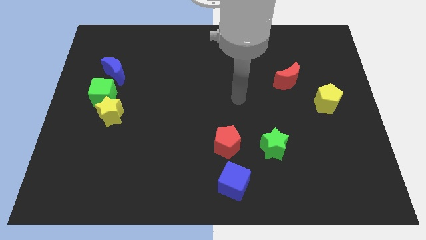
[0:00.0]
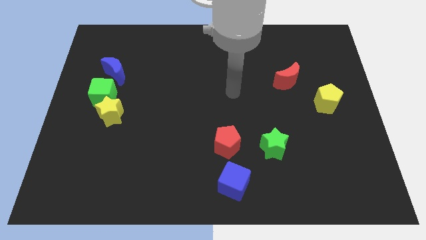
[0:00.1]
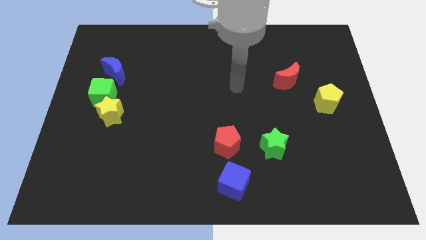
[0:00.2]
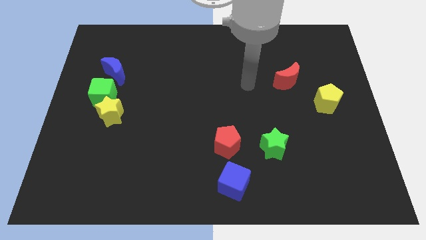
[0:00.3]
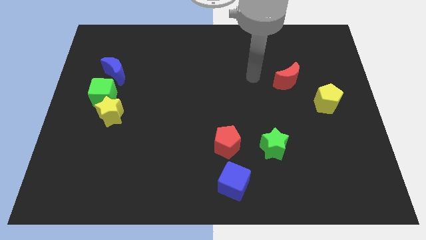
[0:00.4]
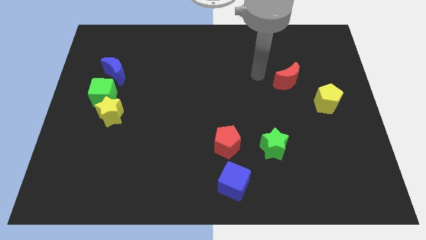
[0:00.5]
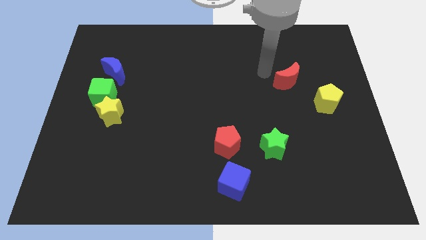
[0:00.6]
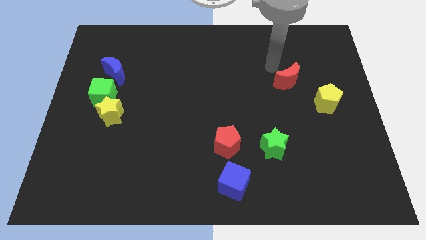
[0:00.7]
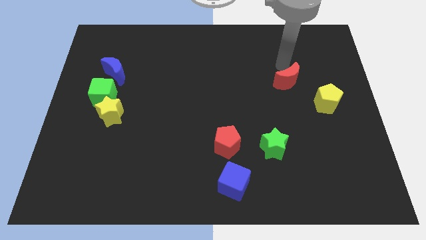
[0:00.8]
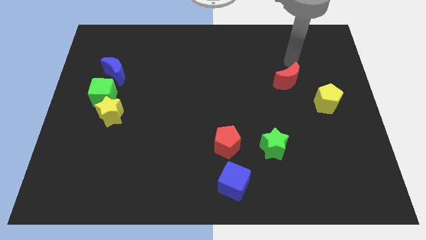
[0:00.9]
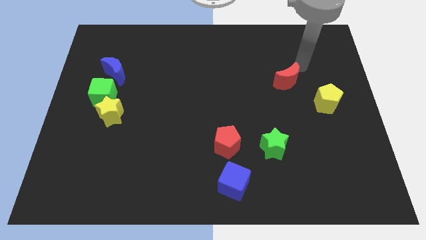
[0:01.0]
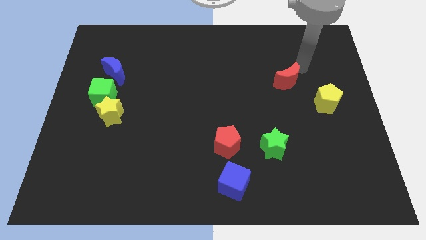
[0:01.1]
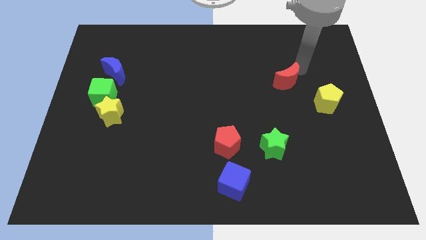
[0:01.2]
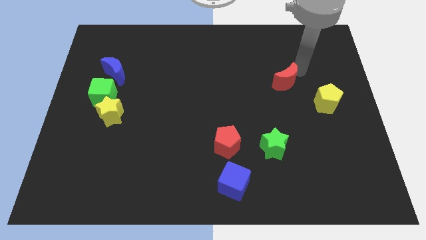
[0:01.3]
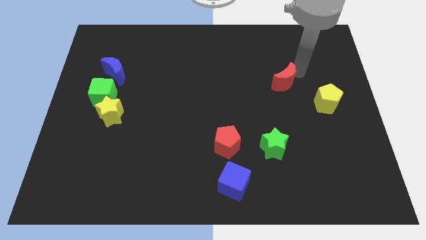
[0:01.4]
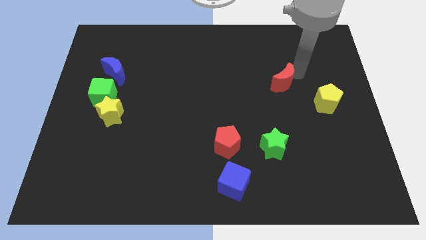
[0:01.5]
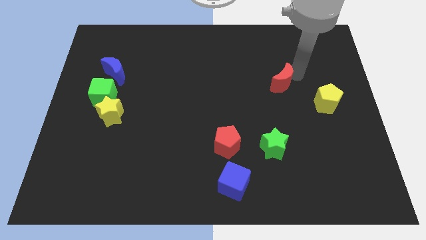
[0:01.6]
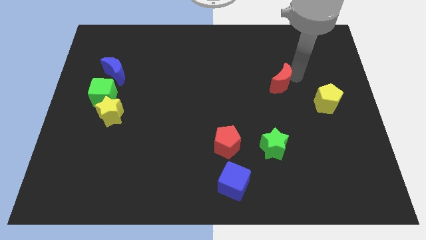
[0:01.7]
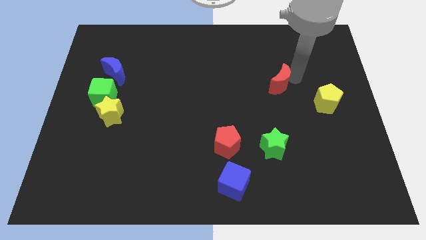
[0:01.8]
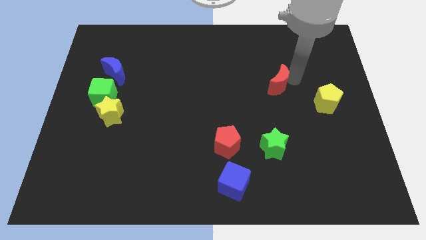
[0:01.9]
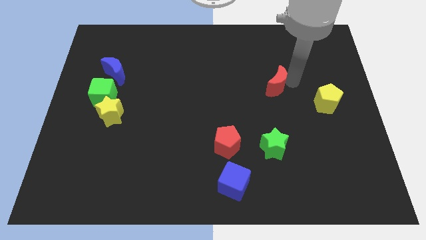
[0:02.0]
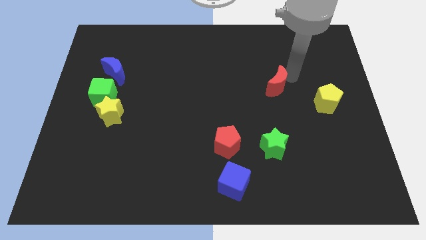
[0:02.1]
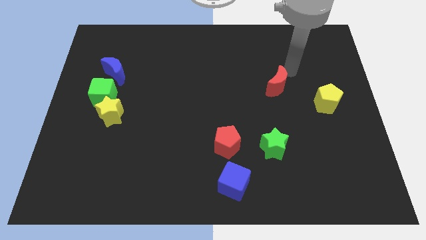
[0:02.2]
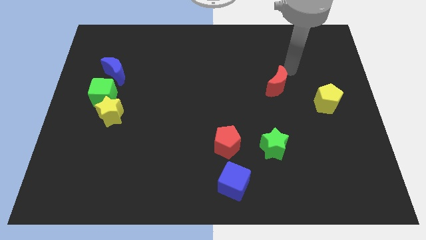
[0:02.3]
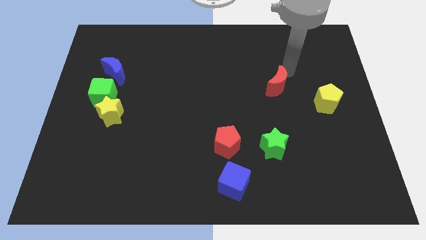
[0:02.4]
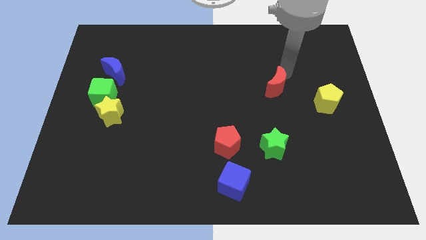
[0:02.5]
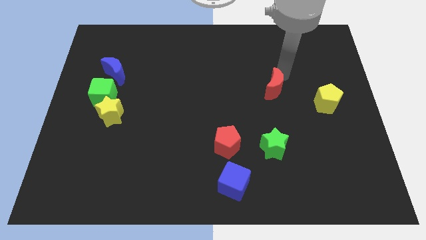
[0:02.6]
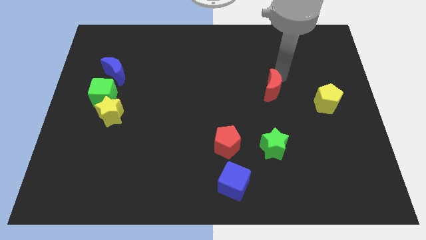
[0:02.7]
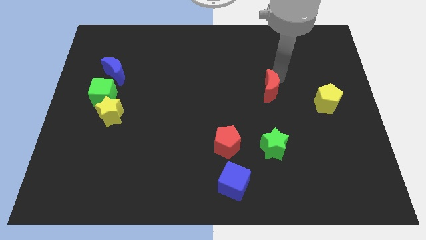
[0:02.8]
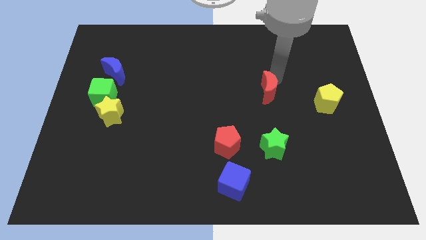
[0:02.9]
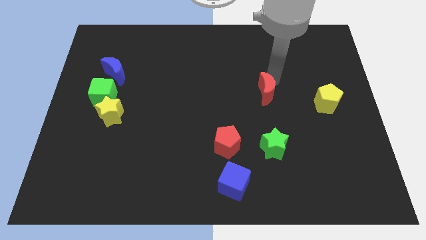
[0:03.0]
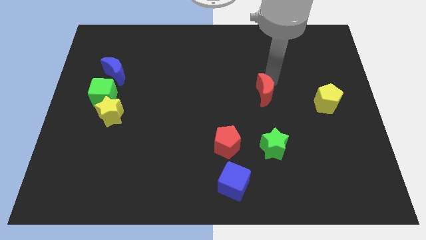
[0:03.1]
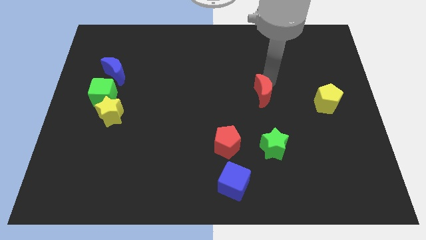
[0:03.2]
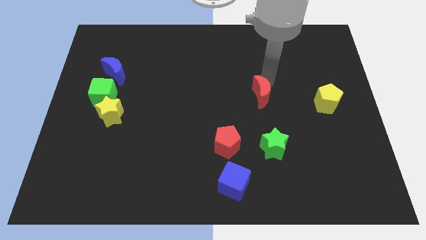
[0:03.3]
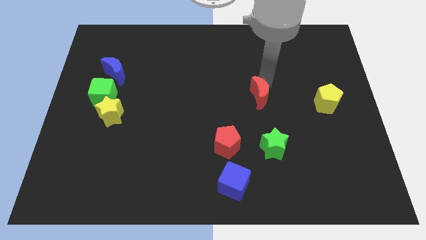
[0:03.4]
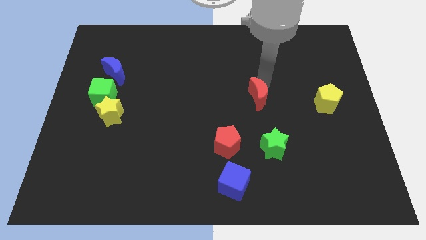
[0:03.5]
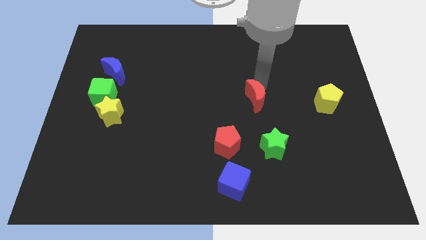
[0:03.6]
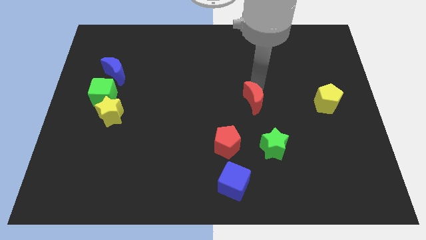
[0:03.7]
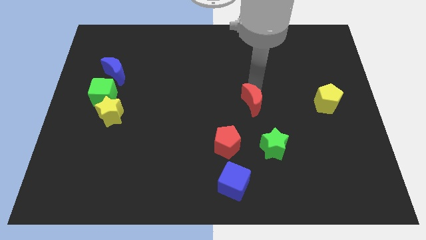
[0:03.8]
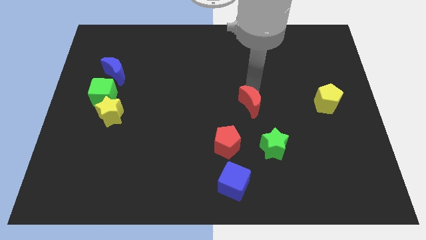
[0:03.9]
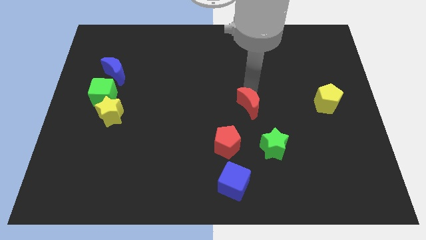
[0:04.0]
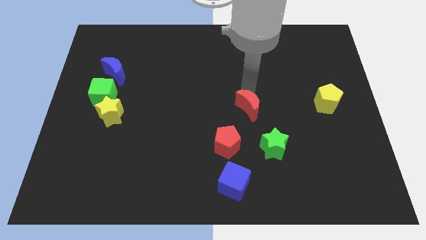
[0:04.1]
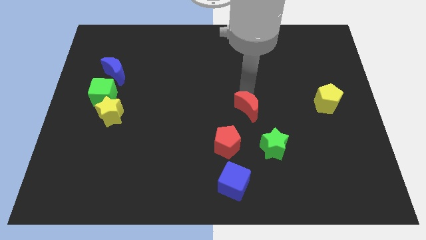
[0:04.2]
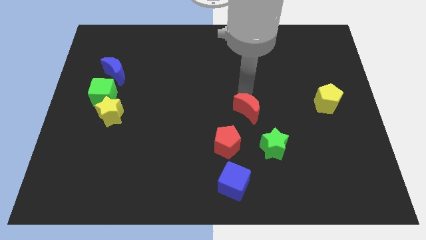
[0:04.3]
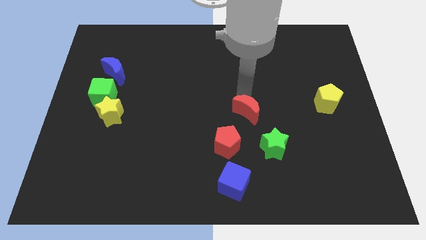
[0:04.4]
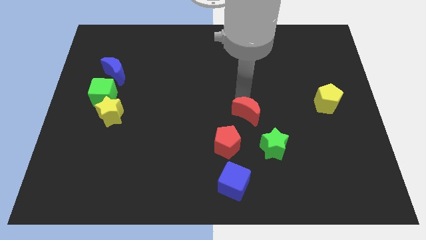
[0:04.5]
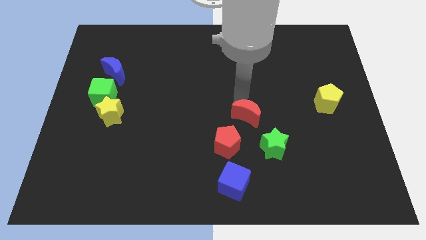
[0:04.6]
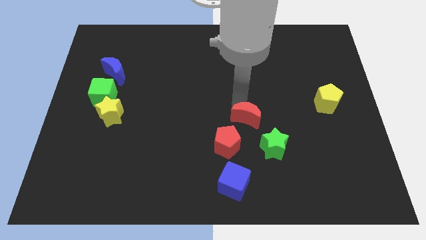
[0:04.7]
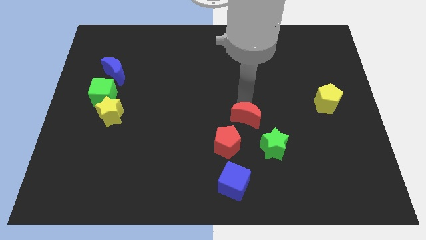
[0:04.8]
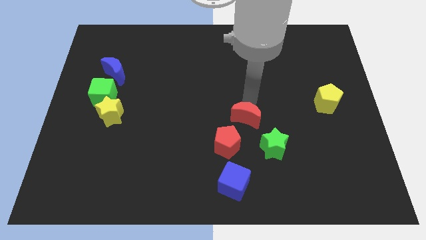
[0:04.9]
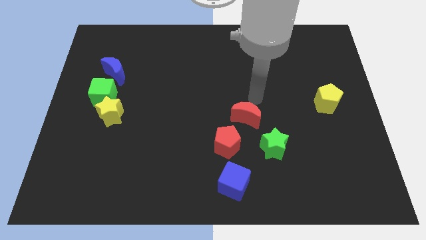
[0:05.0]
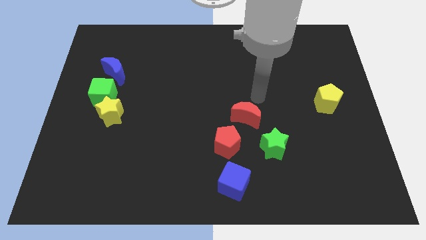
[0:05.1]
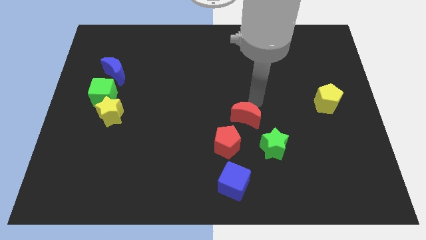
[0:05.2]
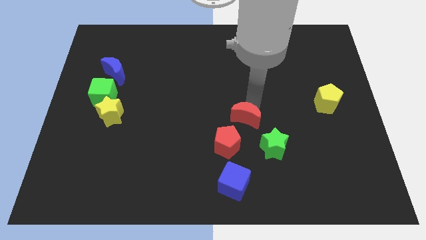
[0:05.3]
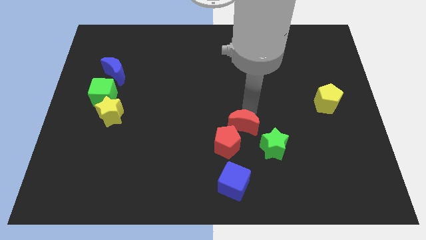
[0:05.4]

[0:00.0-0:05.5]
move the red moon to the top side of the blue cube

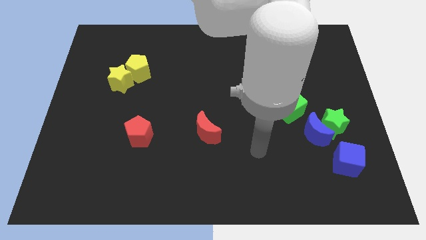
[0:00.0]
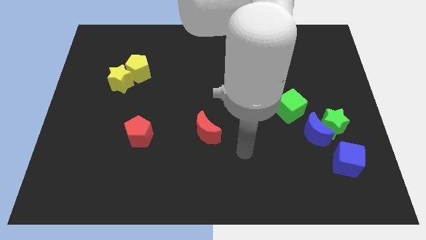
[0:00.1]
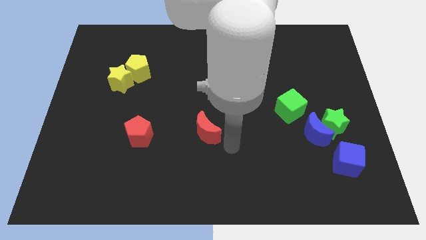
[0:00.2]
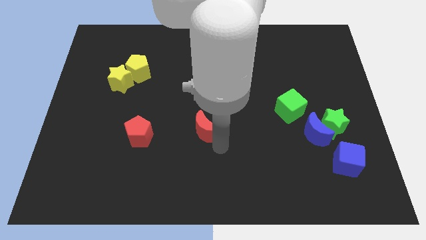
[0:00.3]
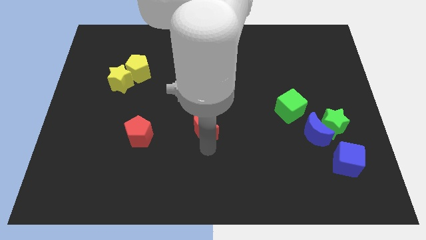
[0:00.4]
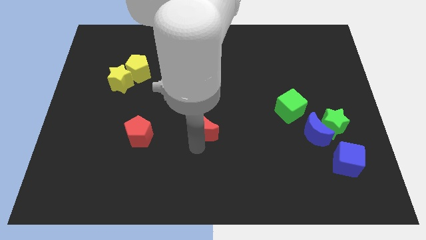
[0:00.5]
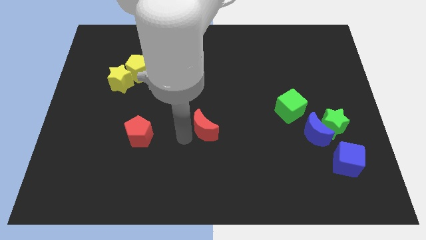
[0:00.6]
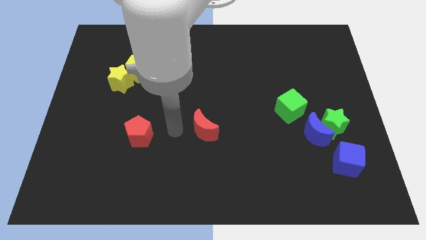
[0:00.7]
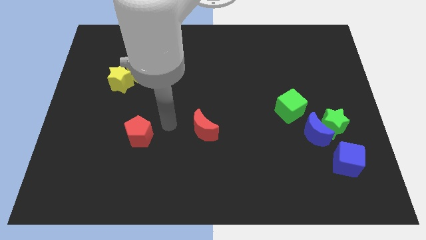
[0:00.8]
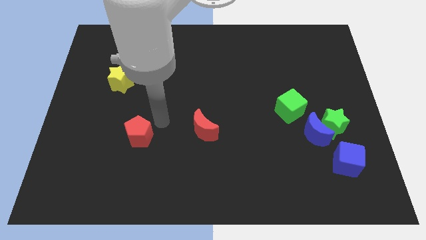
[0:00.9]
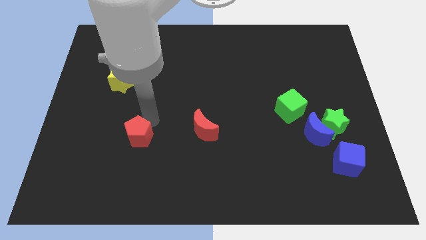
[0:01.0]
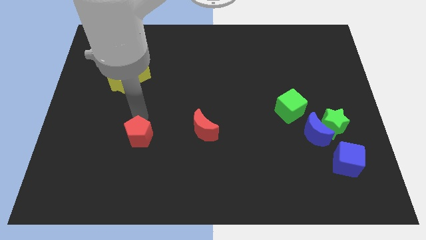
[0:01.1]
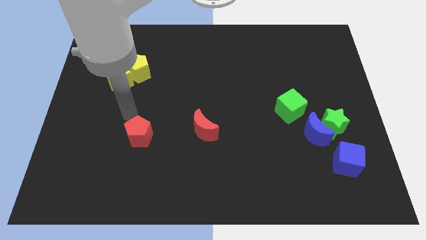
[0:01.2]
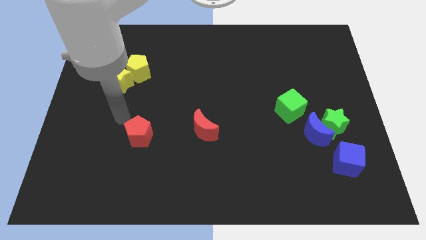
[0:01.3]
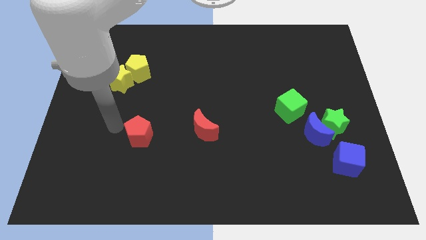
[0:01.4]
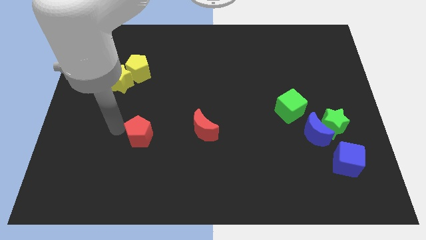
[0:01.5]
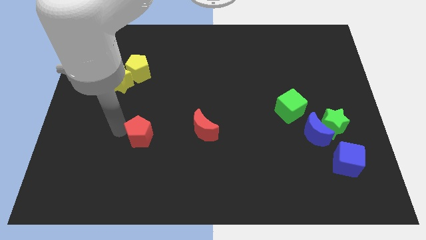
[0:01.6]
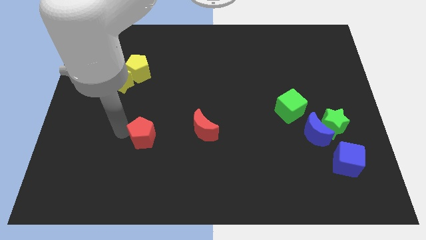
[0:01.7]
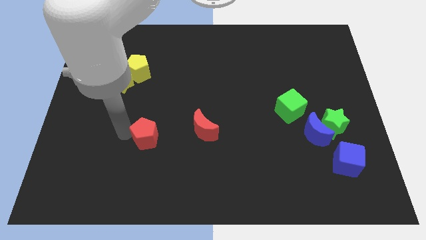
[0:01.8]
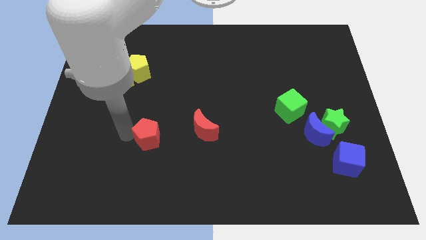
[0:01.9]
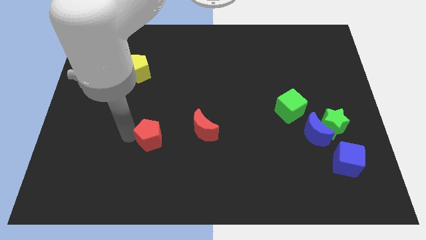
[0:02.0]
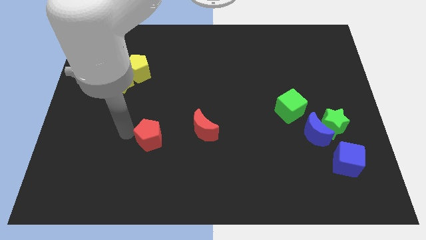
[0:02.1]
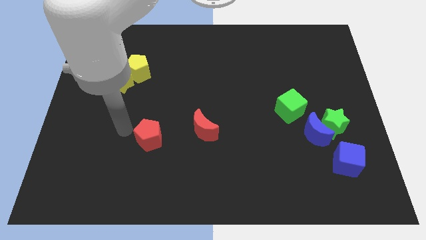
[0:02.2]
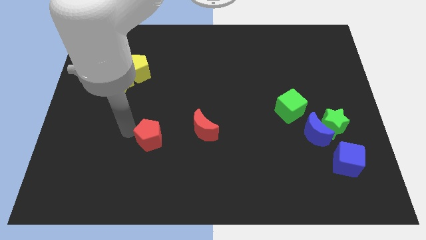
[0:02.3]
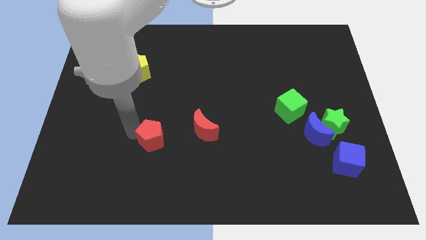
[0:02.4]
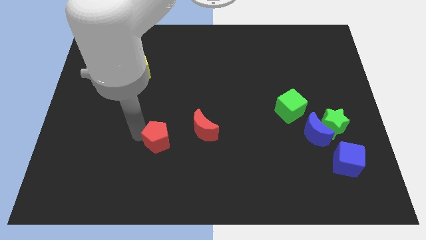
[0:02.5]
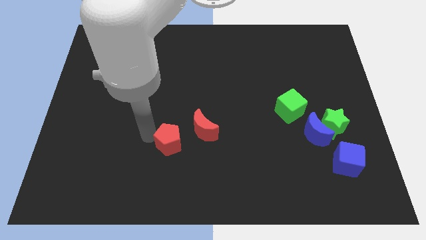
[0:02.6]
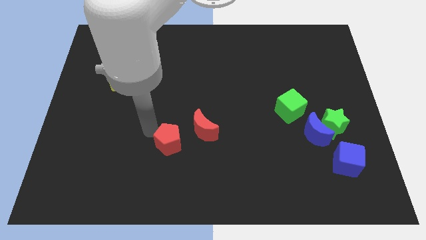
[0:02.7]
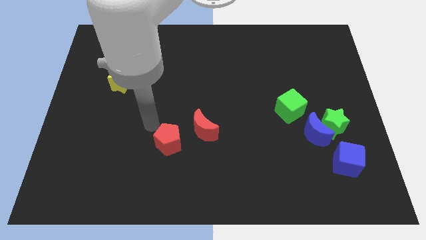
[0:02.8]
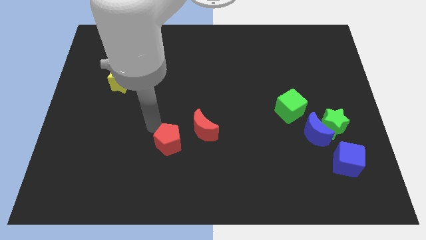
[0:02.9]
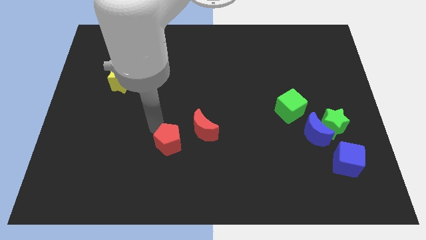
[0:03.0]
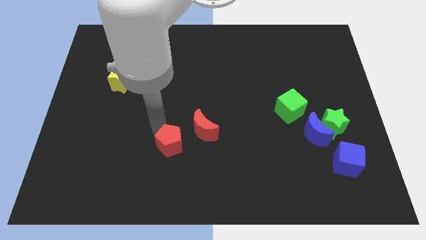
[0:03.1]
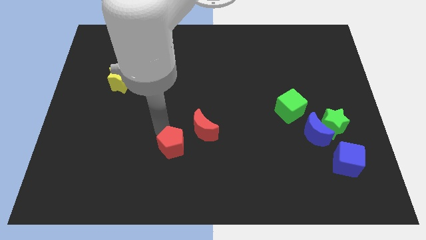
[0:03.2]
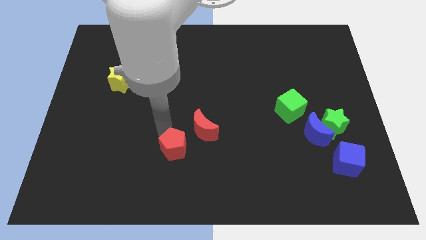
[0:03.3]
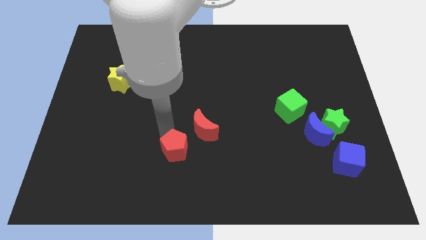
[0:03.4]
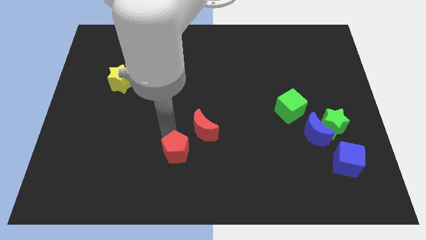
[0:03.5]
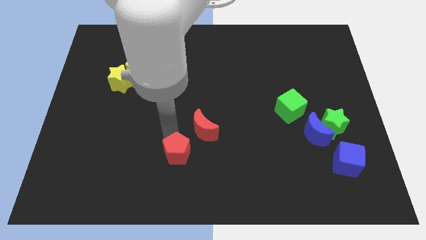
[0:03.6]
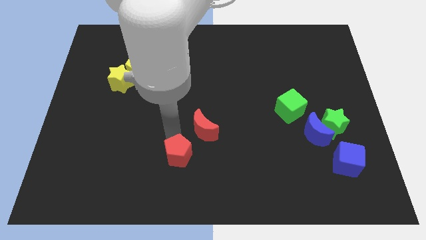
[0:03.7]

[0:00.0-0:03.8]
slide the red pentagon below the red moon
